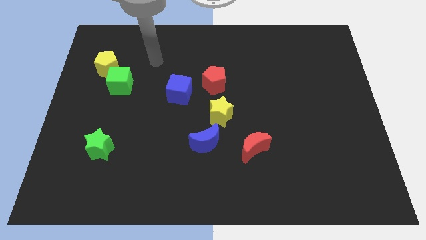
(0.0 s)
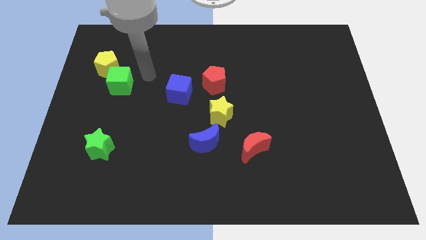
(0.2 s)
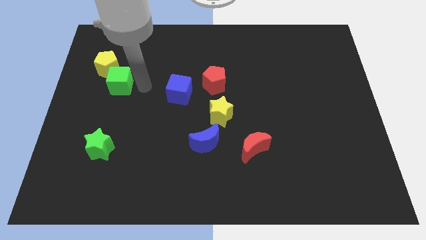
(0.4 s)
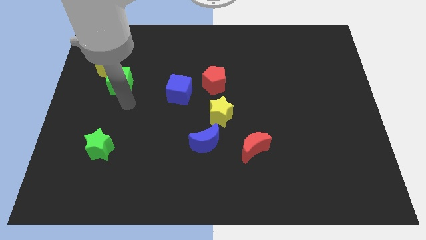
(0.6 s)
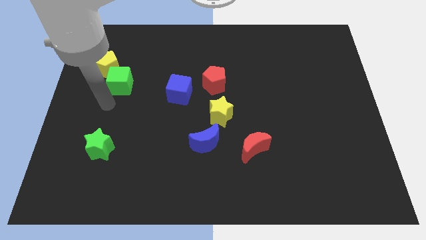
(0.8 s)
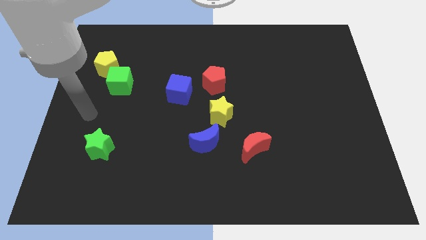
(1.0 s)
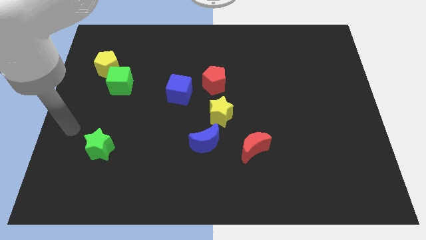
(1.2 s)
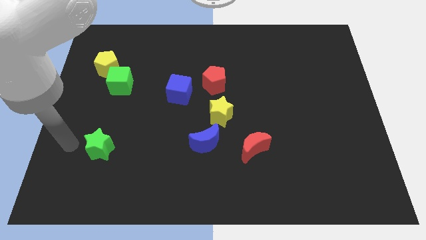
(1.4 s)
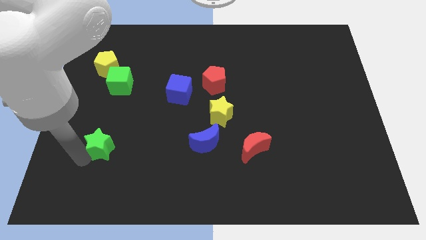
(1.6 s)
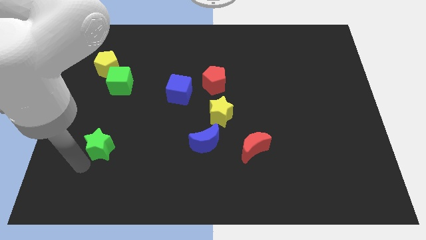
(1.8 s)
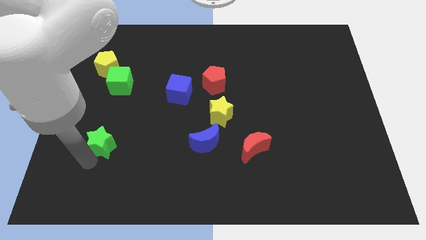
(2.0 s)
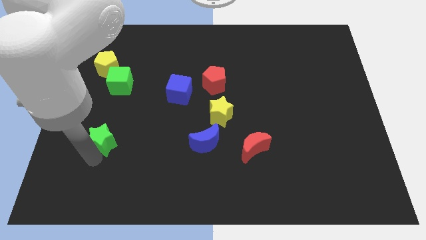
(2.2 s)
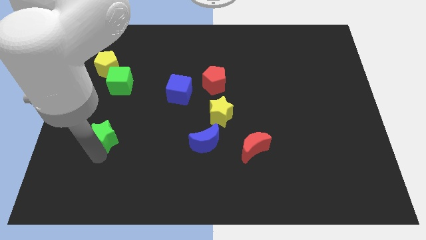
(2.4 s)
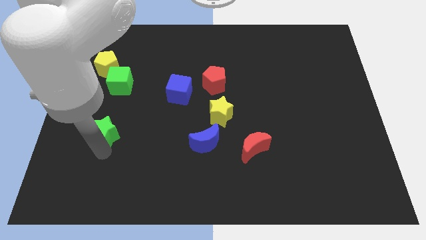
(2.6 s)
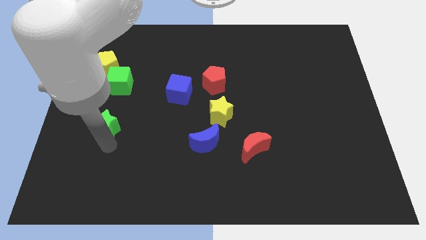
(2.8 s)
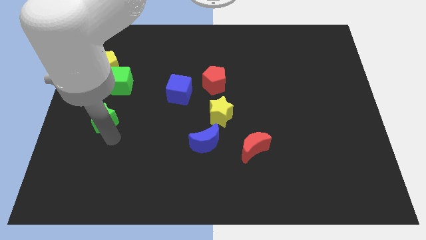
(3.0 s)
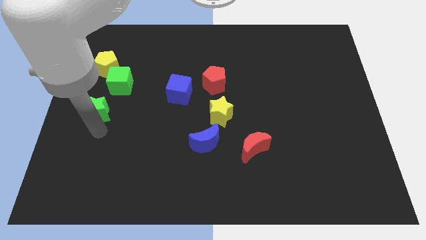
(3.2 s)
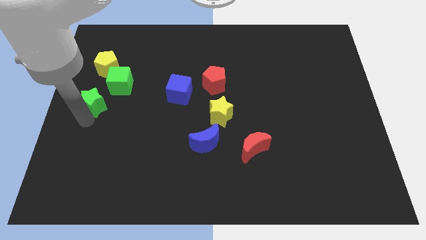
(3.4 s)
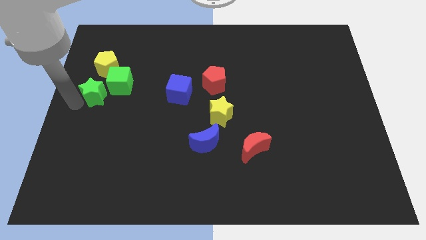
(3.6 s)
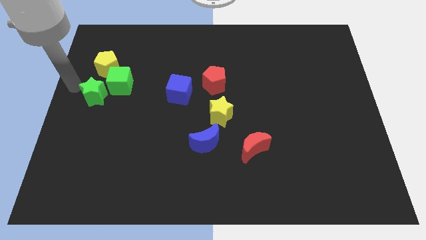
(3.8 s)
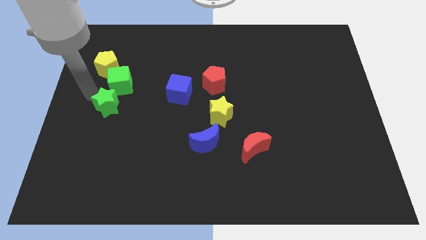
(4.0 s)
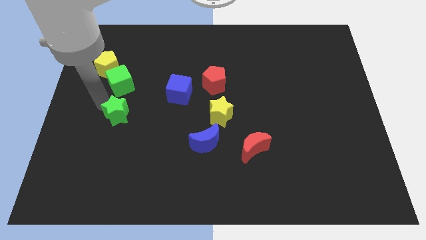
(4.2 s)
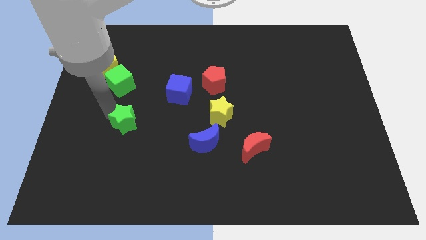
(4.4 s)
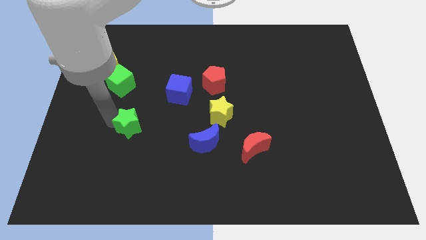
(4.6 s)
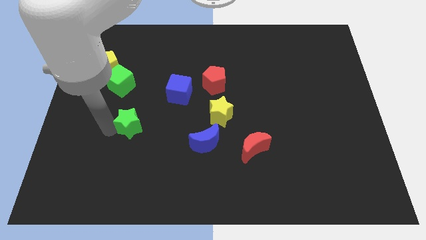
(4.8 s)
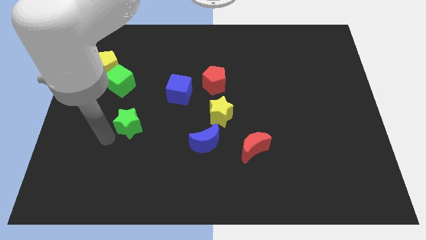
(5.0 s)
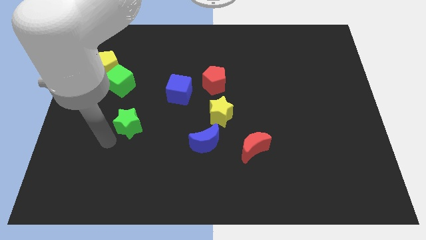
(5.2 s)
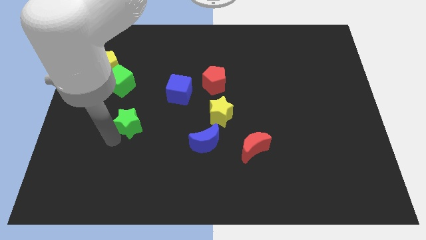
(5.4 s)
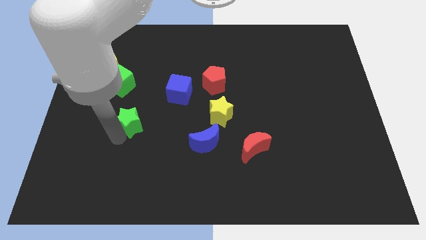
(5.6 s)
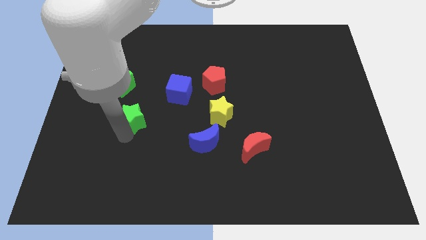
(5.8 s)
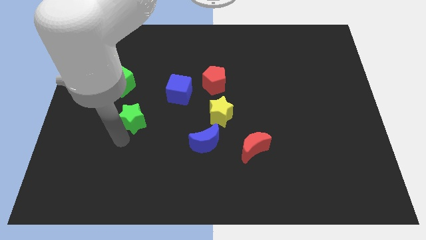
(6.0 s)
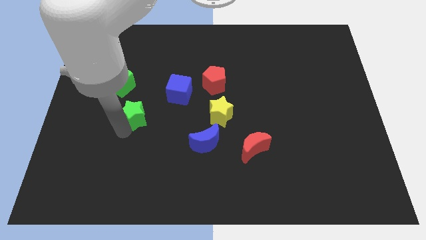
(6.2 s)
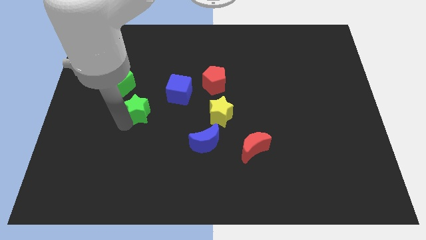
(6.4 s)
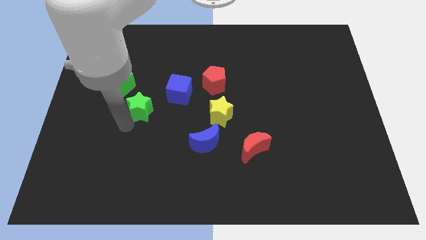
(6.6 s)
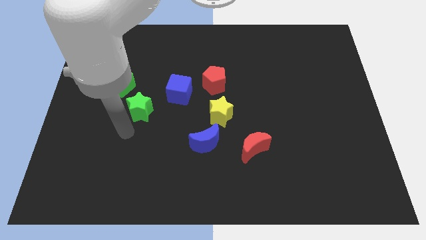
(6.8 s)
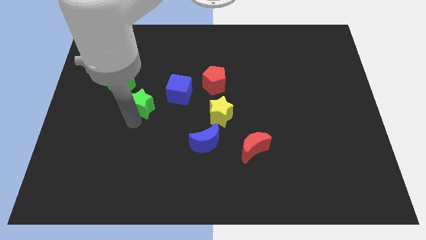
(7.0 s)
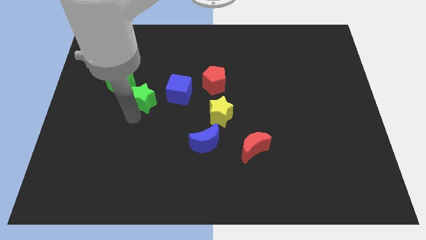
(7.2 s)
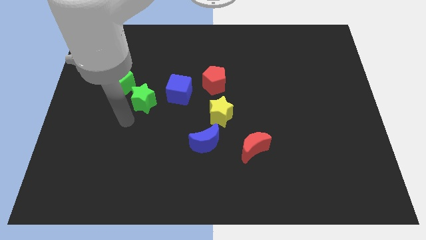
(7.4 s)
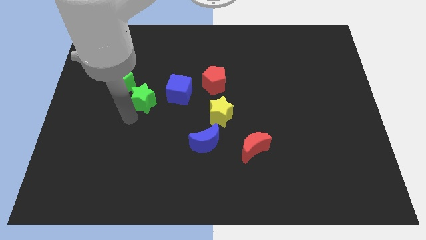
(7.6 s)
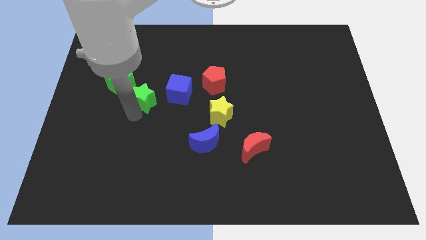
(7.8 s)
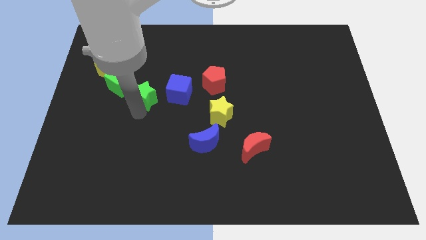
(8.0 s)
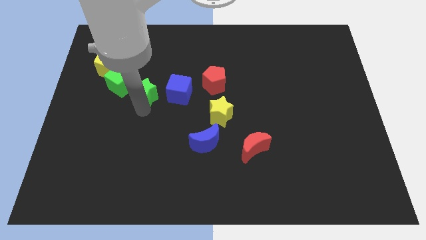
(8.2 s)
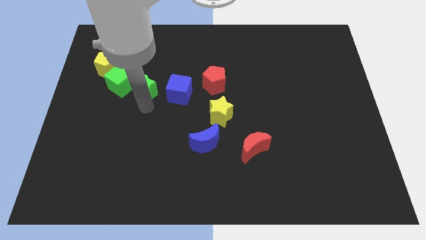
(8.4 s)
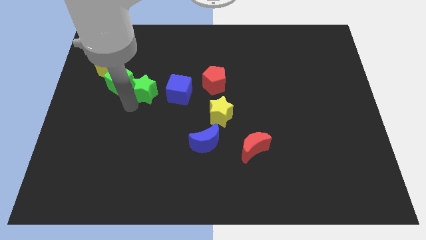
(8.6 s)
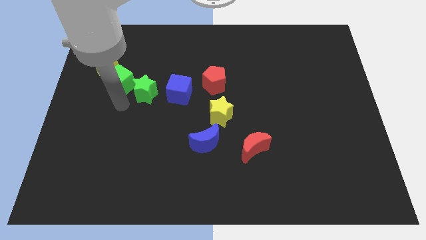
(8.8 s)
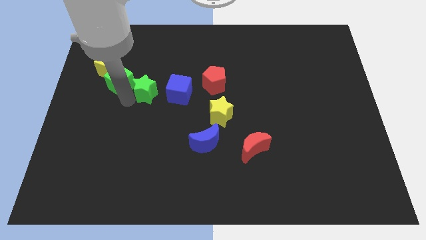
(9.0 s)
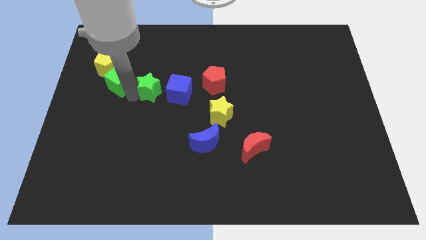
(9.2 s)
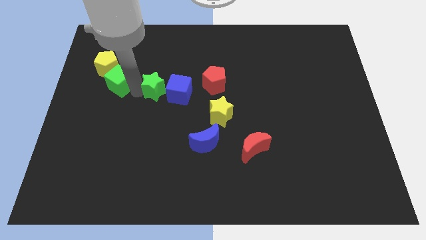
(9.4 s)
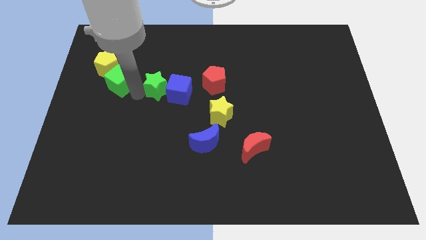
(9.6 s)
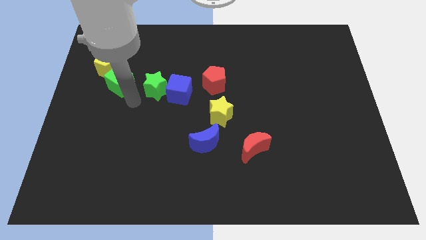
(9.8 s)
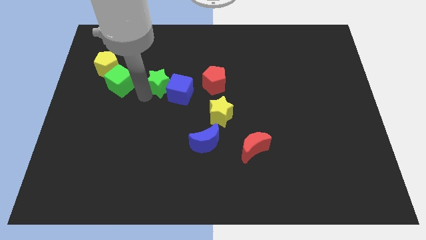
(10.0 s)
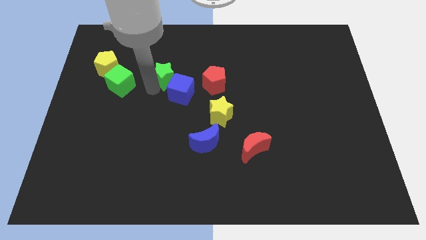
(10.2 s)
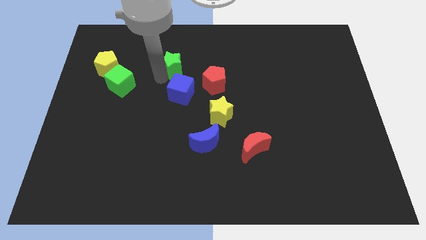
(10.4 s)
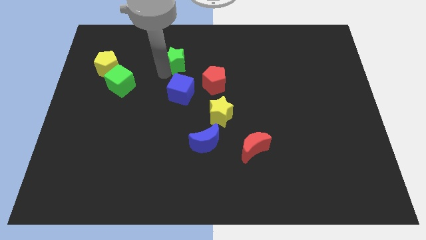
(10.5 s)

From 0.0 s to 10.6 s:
push the green star diagonally up and to the left of the red pentagon

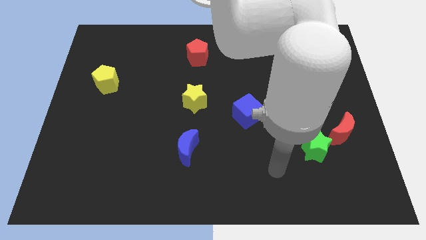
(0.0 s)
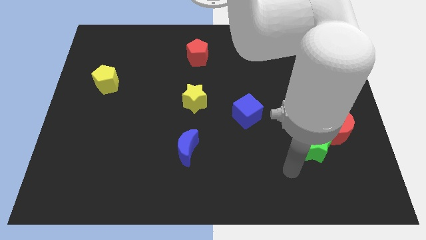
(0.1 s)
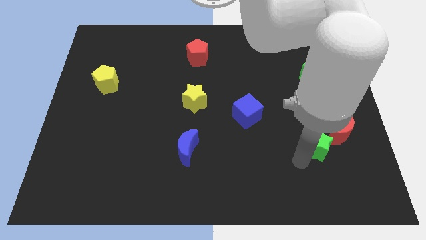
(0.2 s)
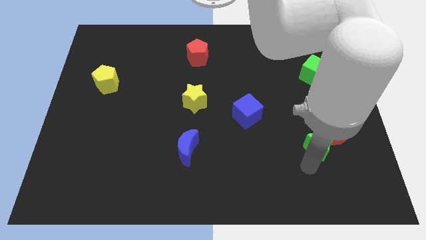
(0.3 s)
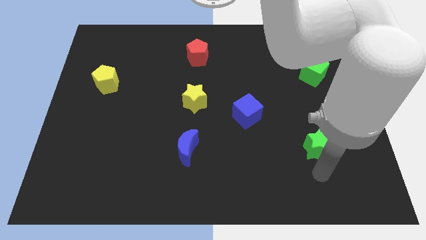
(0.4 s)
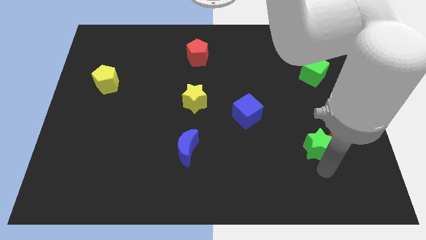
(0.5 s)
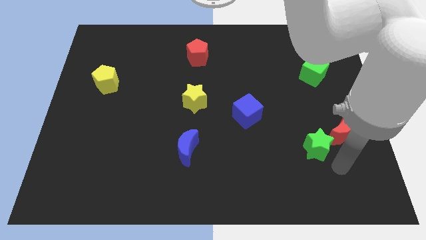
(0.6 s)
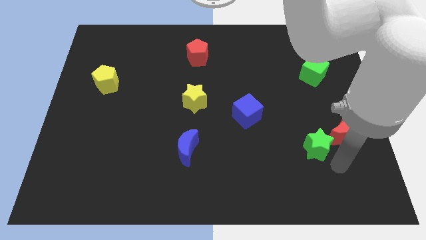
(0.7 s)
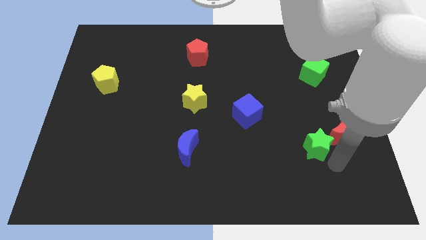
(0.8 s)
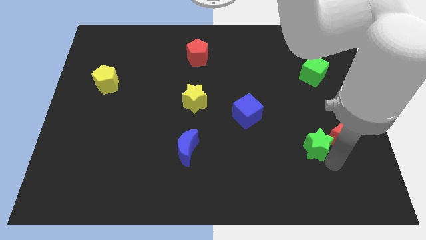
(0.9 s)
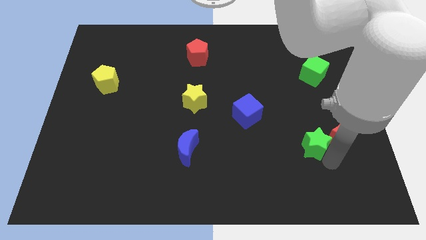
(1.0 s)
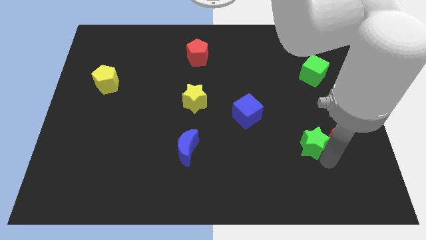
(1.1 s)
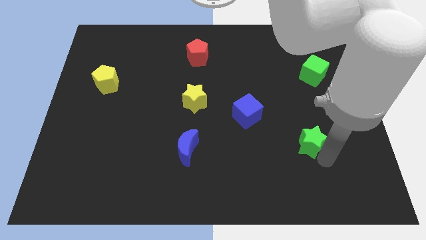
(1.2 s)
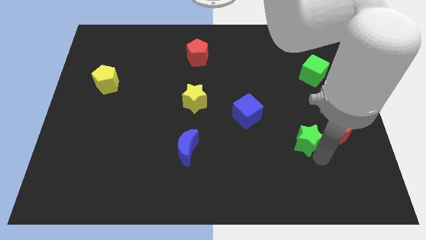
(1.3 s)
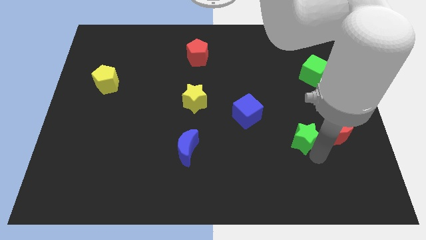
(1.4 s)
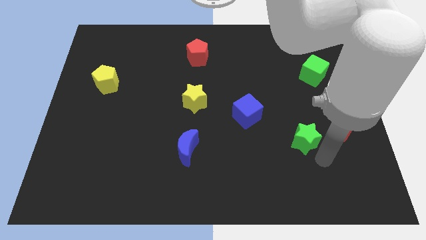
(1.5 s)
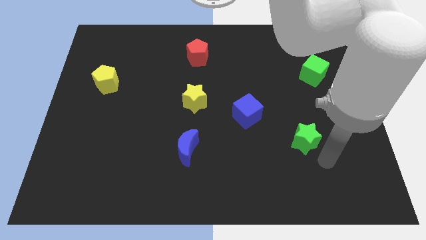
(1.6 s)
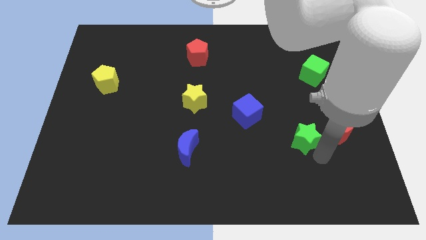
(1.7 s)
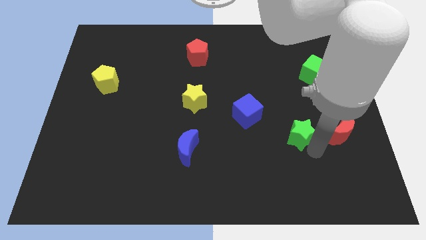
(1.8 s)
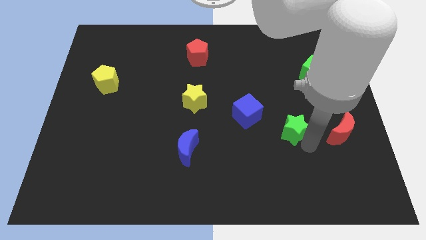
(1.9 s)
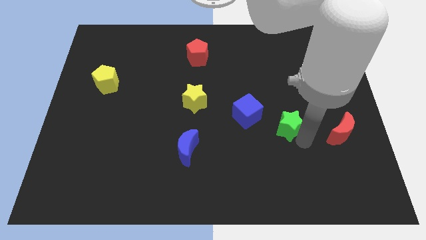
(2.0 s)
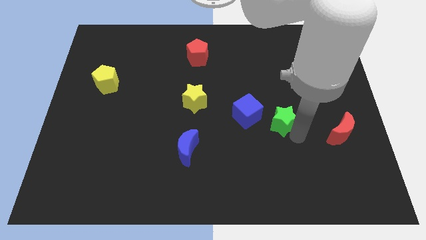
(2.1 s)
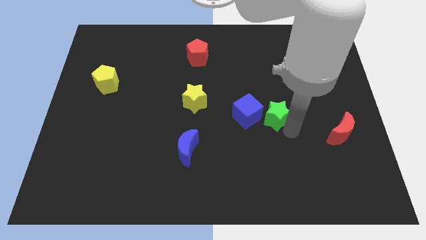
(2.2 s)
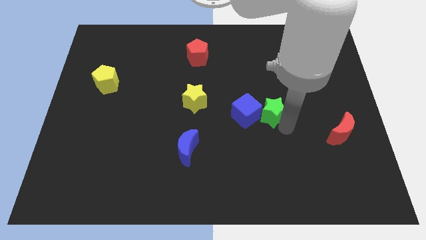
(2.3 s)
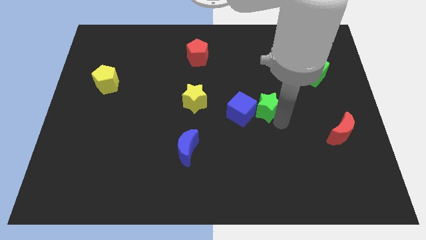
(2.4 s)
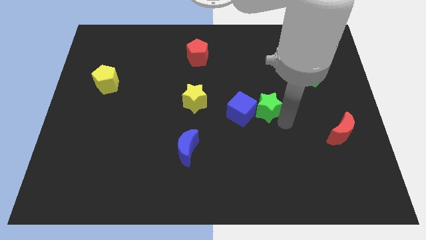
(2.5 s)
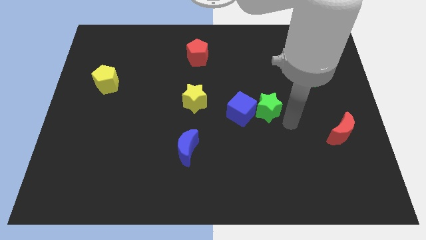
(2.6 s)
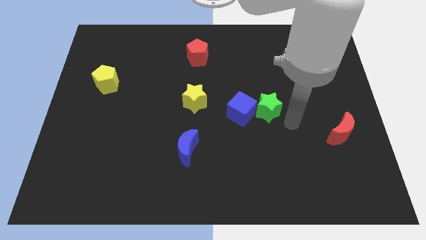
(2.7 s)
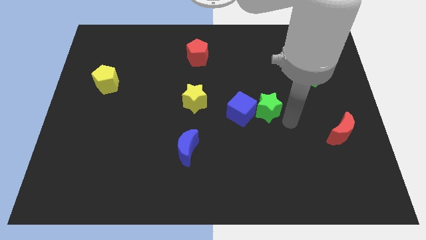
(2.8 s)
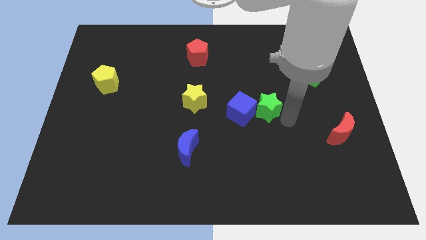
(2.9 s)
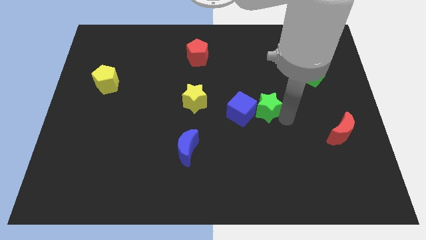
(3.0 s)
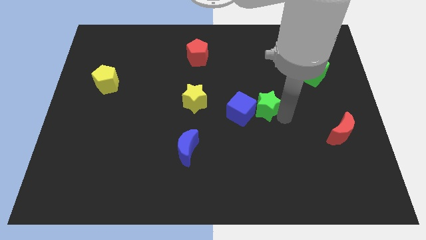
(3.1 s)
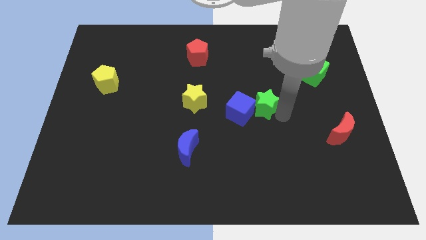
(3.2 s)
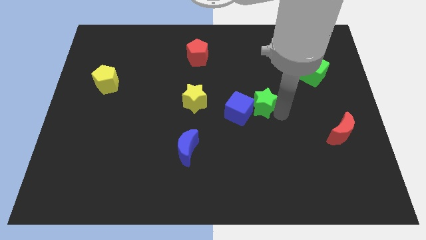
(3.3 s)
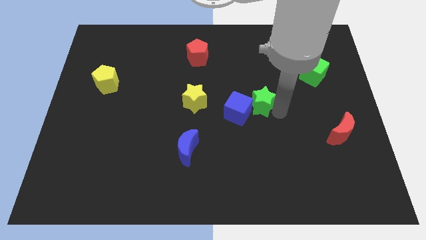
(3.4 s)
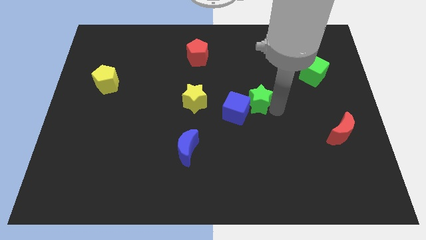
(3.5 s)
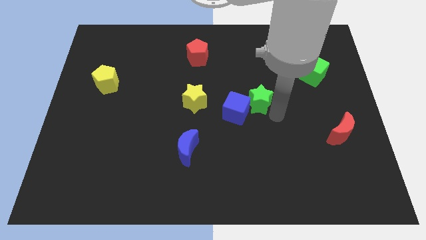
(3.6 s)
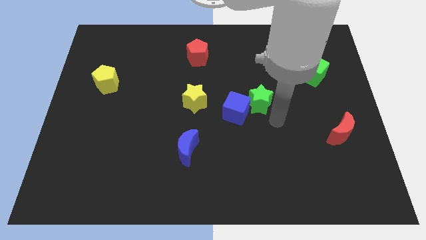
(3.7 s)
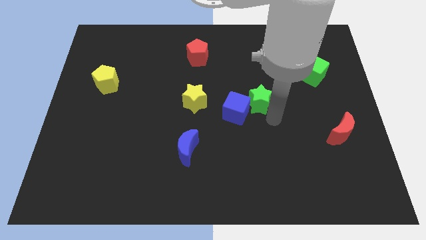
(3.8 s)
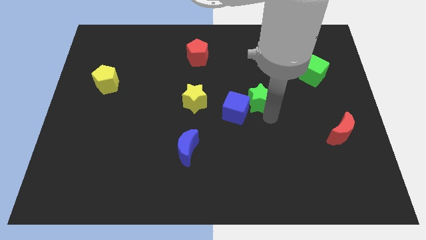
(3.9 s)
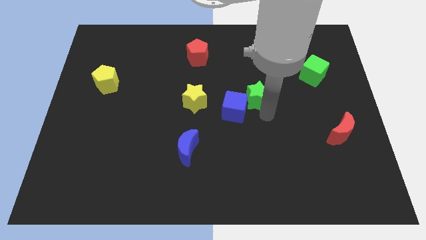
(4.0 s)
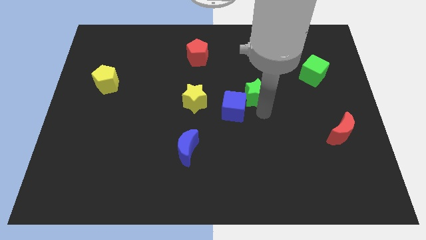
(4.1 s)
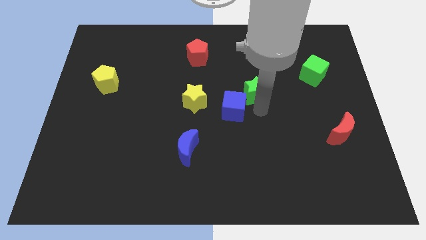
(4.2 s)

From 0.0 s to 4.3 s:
put the green star to the top of the blue cube
